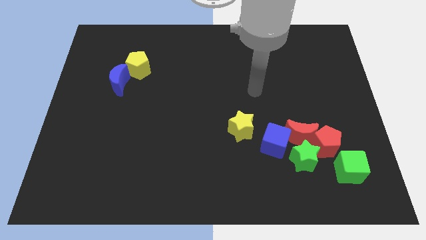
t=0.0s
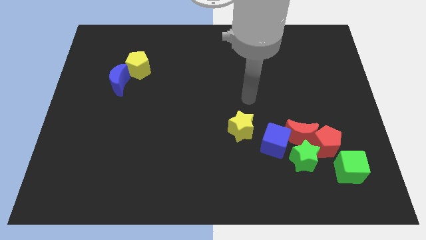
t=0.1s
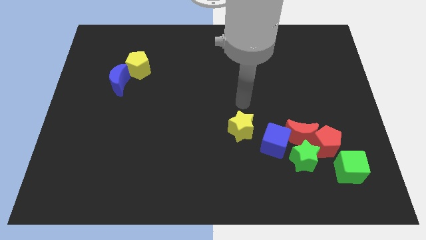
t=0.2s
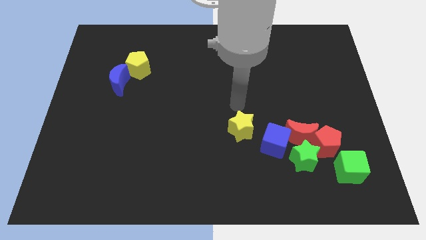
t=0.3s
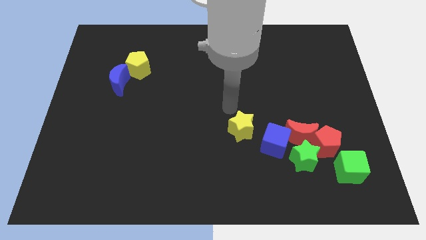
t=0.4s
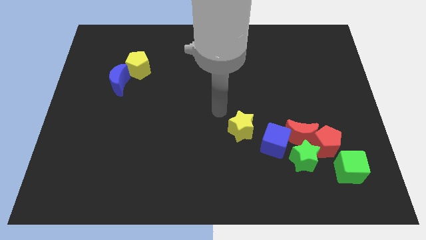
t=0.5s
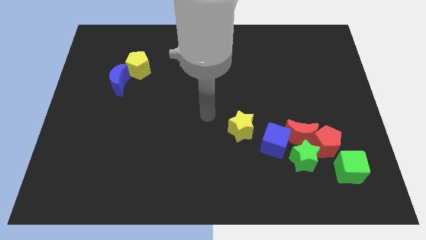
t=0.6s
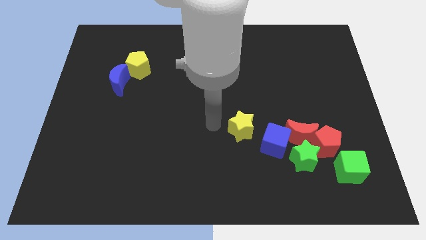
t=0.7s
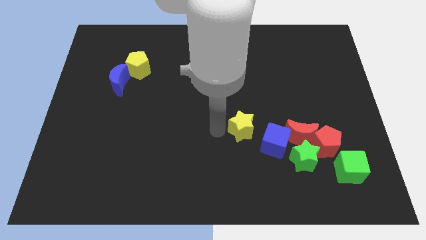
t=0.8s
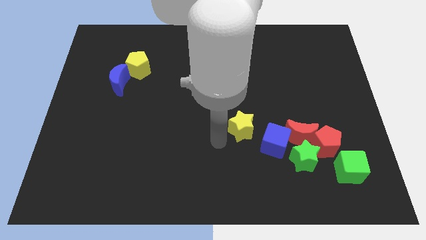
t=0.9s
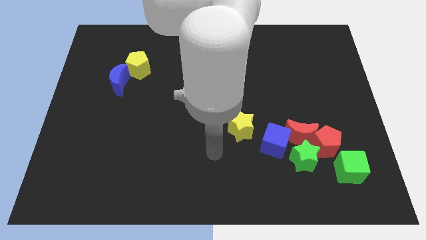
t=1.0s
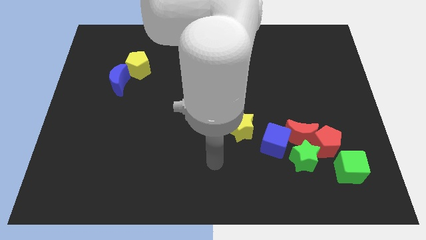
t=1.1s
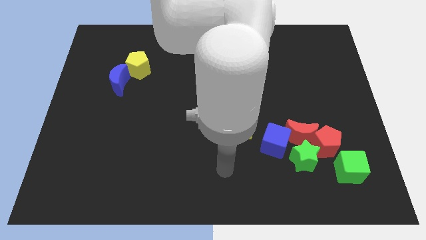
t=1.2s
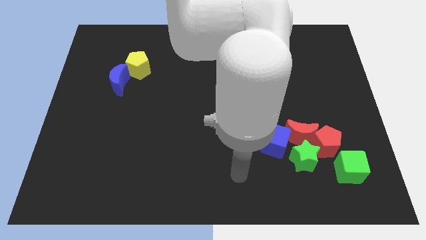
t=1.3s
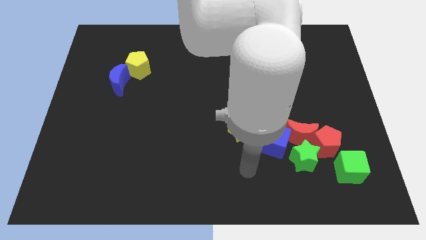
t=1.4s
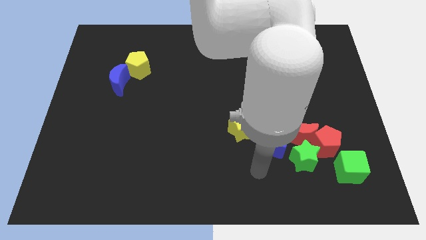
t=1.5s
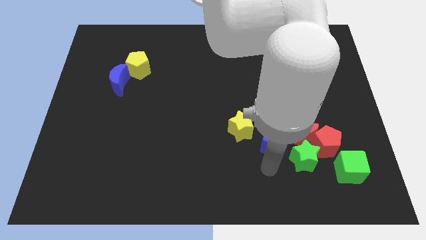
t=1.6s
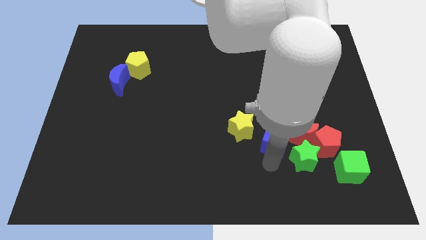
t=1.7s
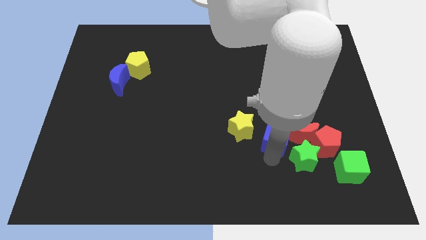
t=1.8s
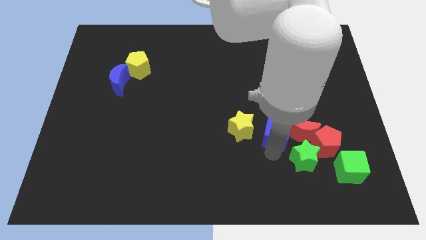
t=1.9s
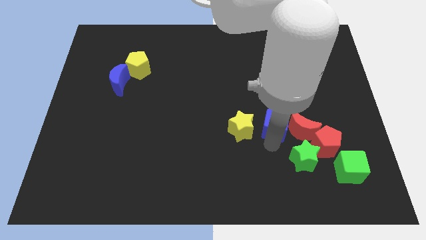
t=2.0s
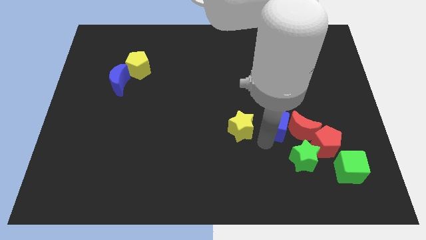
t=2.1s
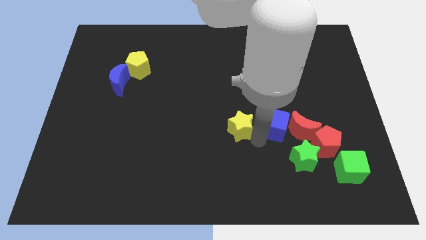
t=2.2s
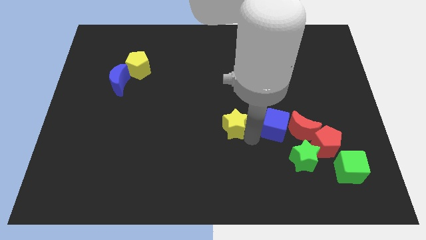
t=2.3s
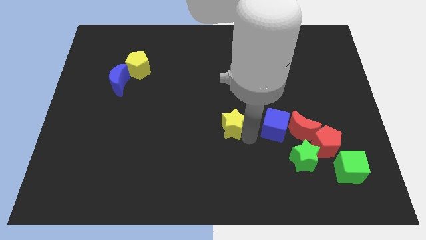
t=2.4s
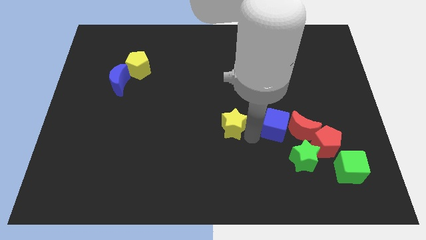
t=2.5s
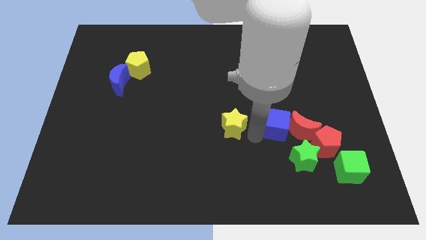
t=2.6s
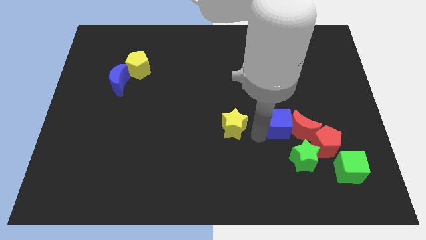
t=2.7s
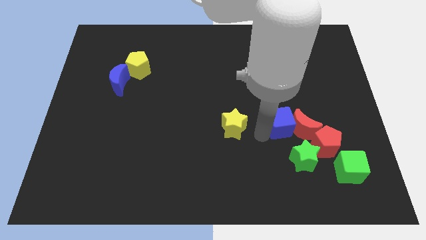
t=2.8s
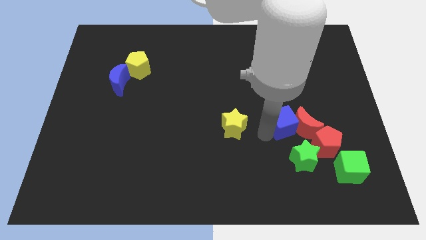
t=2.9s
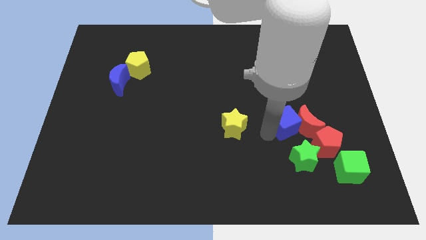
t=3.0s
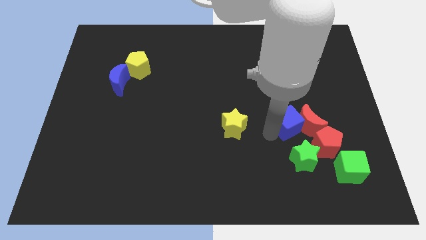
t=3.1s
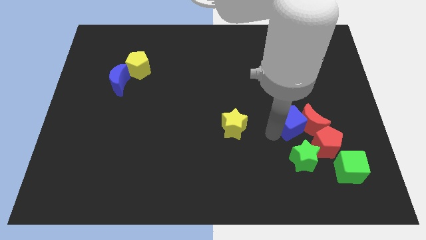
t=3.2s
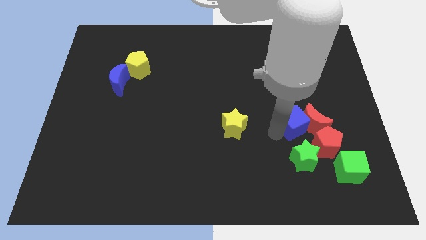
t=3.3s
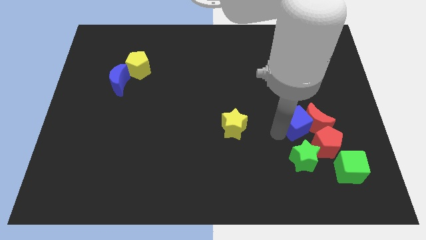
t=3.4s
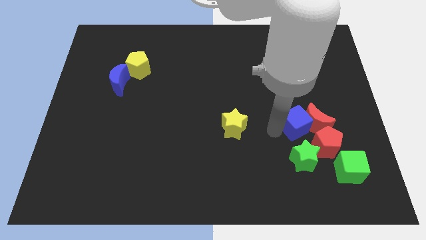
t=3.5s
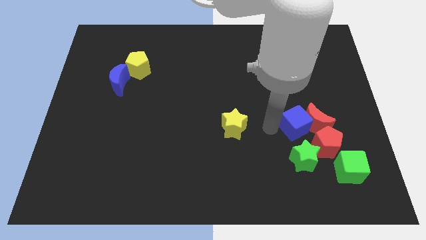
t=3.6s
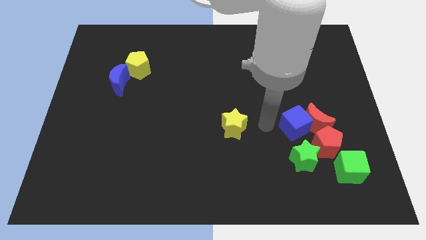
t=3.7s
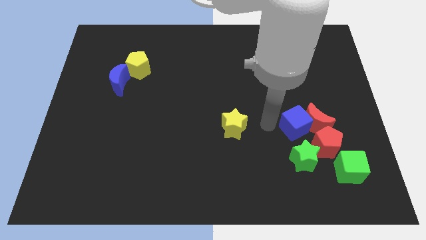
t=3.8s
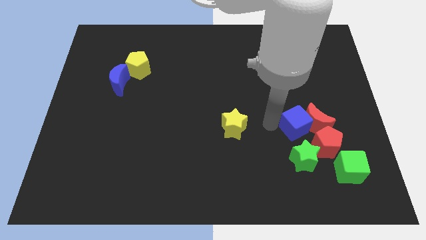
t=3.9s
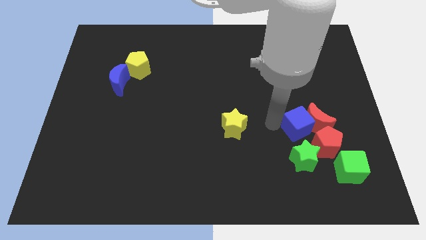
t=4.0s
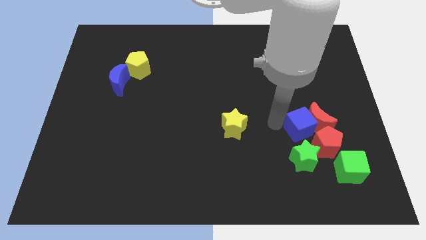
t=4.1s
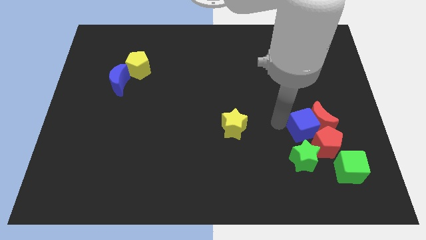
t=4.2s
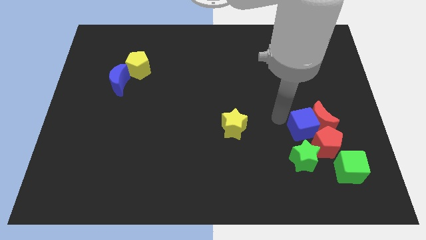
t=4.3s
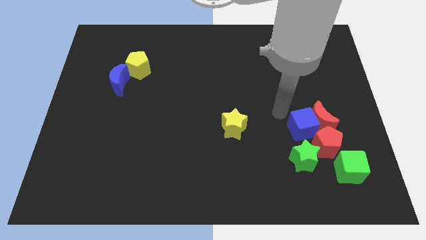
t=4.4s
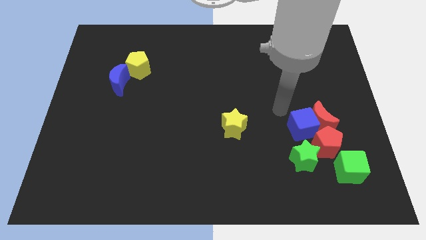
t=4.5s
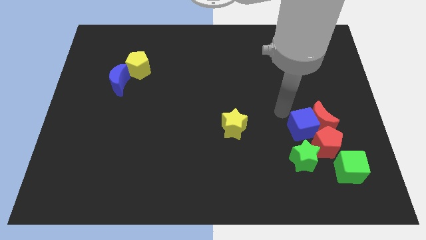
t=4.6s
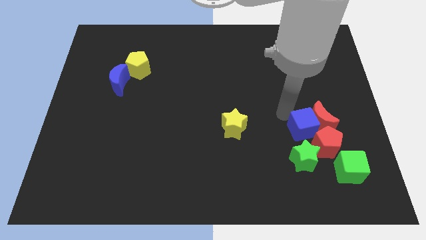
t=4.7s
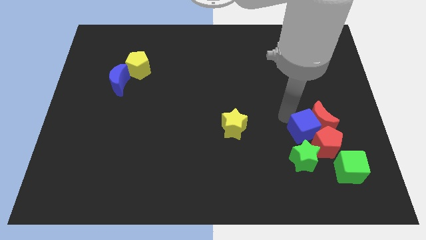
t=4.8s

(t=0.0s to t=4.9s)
push the blue cube to the red pentagon

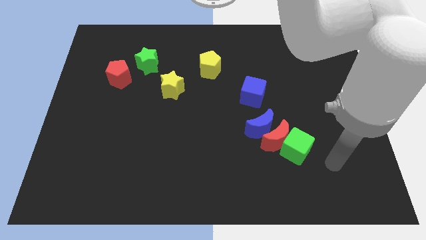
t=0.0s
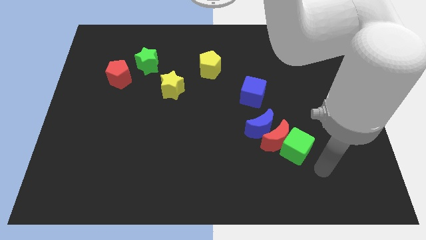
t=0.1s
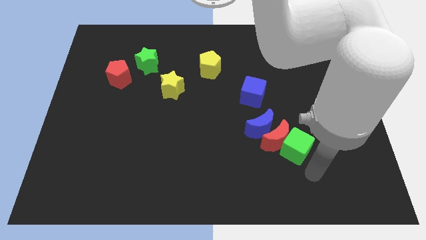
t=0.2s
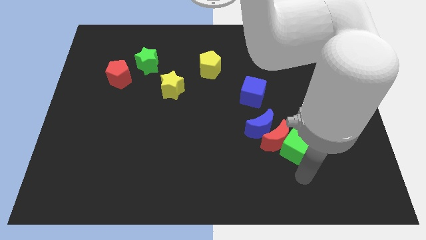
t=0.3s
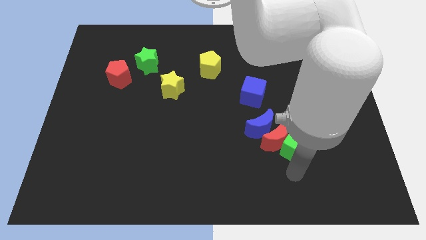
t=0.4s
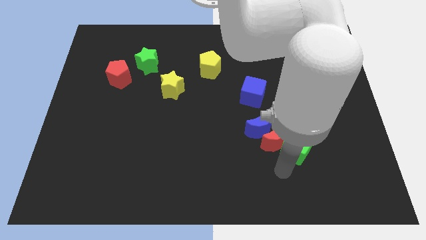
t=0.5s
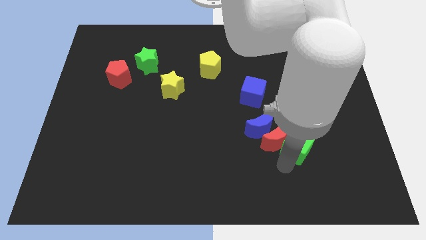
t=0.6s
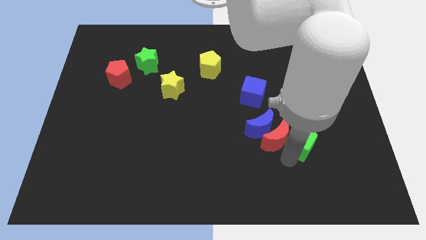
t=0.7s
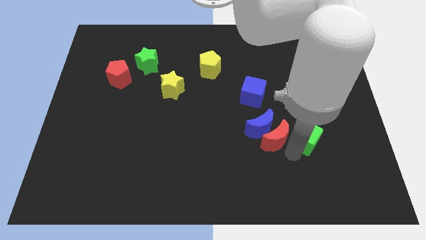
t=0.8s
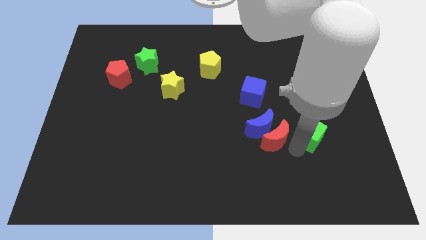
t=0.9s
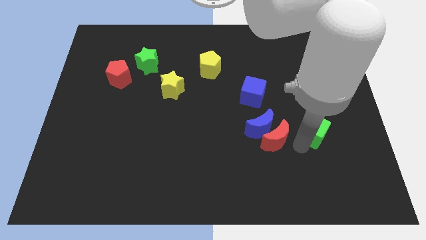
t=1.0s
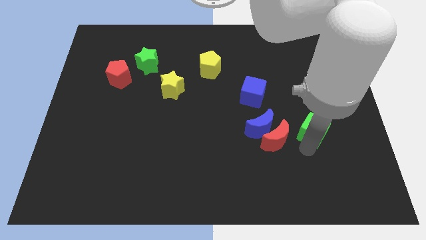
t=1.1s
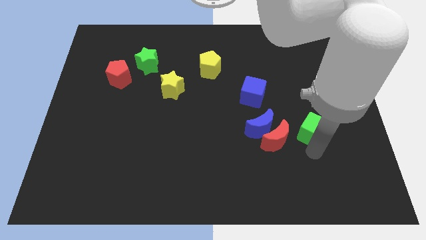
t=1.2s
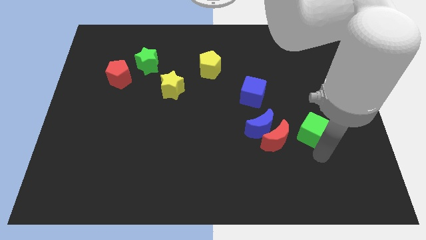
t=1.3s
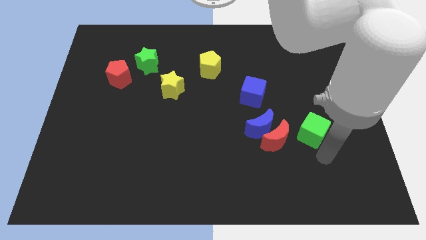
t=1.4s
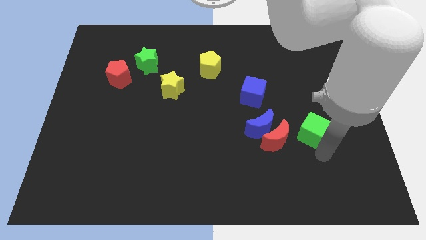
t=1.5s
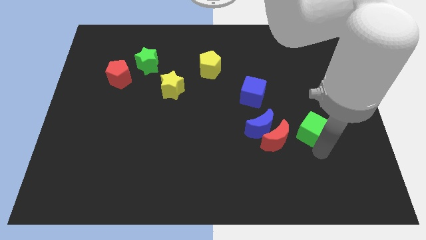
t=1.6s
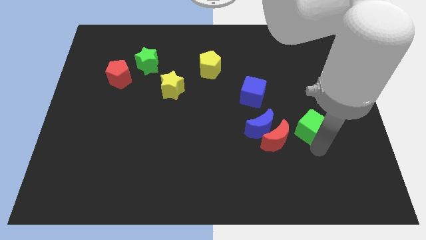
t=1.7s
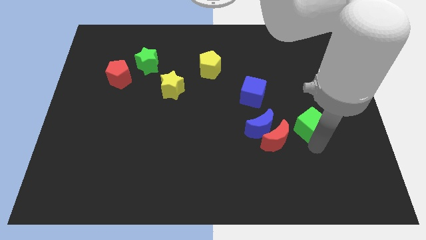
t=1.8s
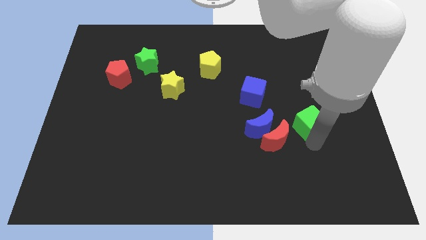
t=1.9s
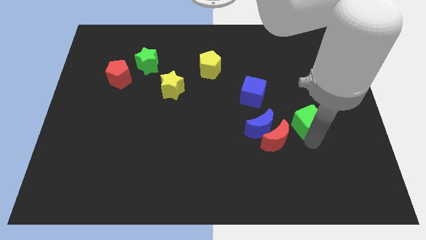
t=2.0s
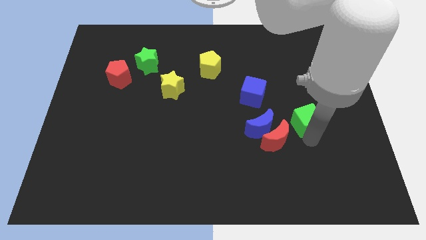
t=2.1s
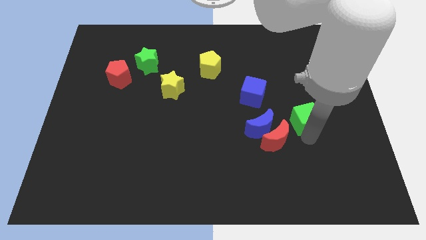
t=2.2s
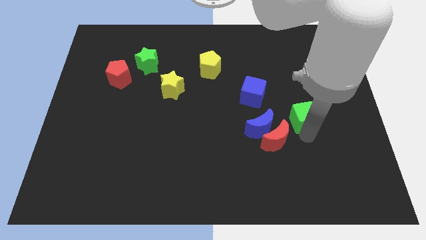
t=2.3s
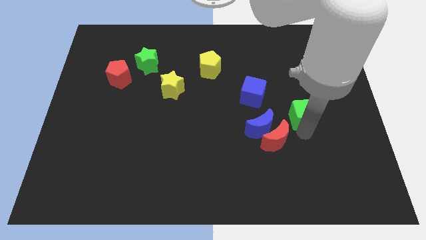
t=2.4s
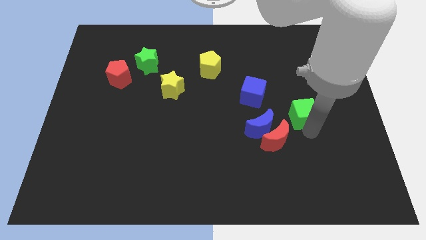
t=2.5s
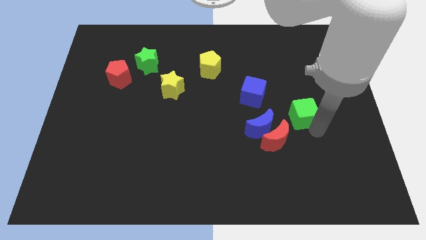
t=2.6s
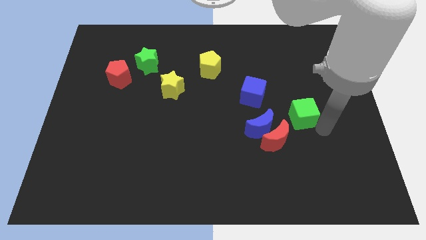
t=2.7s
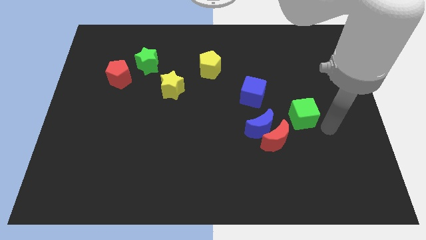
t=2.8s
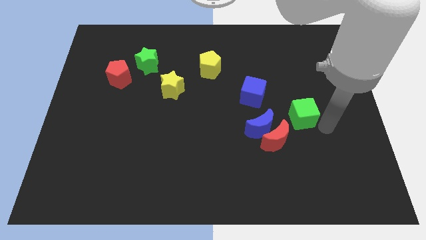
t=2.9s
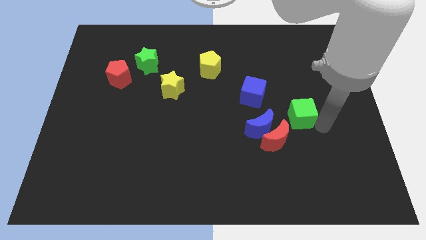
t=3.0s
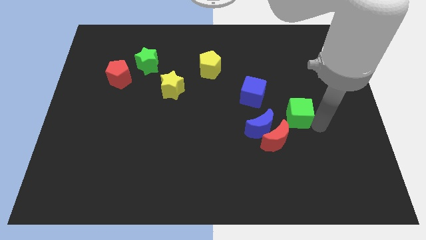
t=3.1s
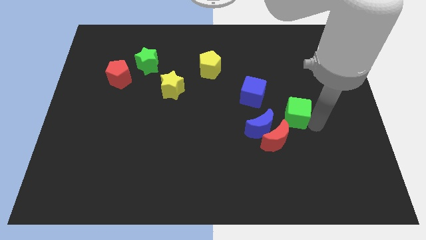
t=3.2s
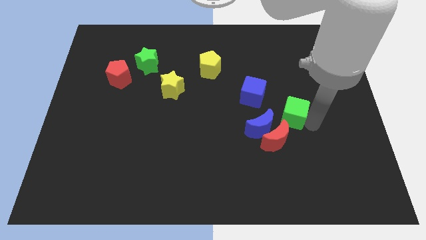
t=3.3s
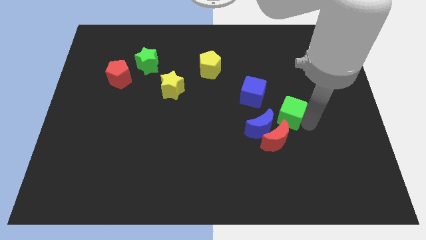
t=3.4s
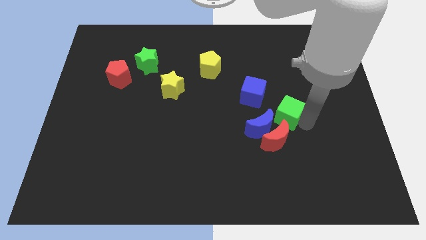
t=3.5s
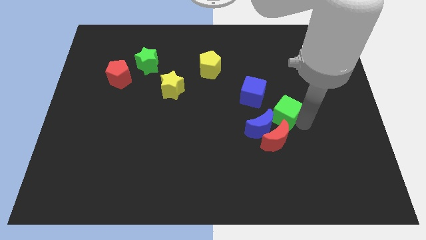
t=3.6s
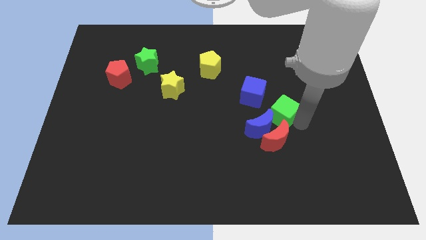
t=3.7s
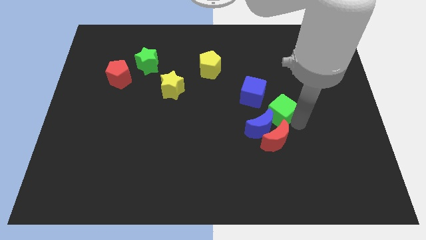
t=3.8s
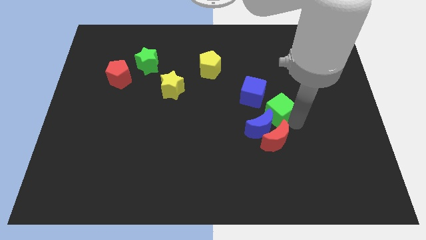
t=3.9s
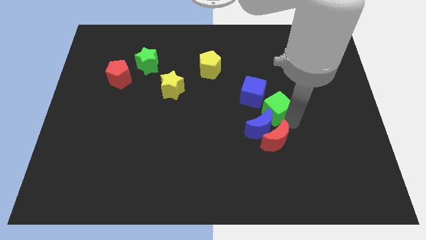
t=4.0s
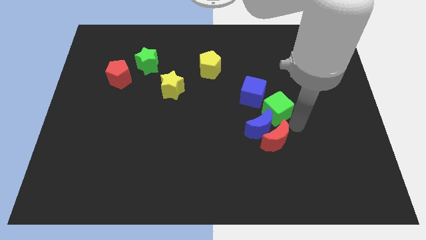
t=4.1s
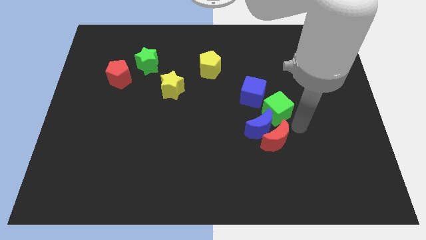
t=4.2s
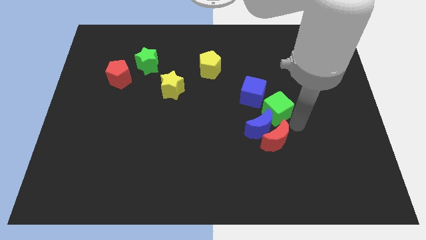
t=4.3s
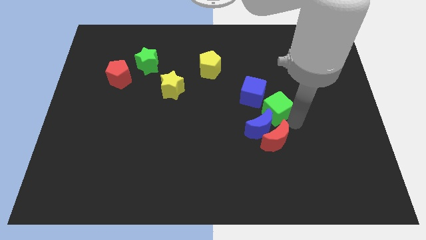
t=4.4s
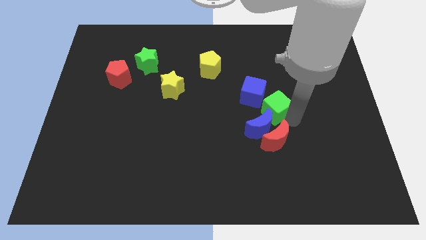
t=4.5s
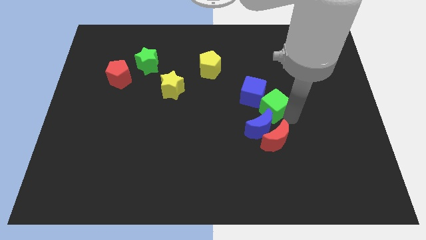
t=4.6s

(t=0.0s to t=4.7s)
put the green cube next to the blue cube
